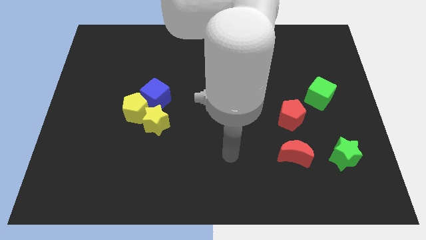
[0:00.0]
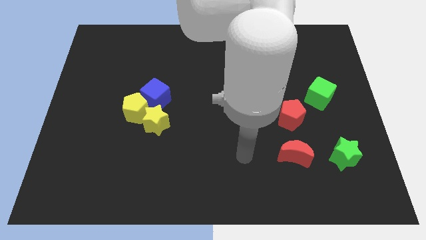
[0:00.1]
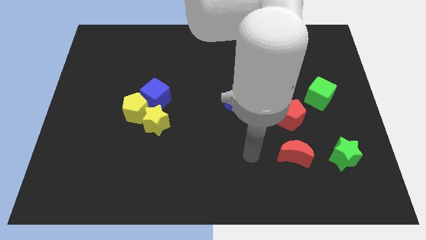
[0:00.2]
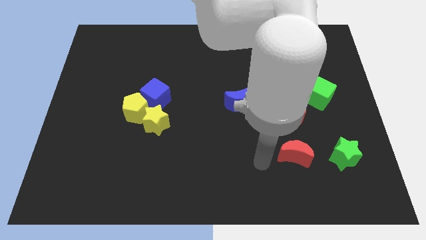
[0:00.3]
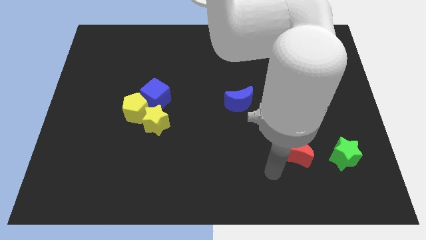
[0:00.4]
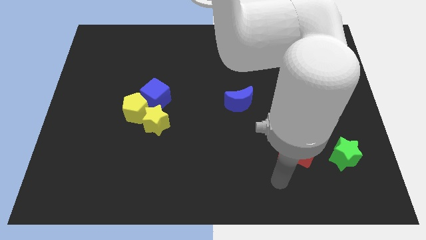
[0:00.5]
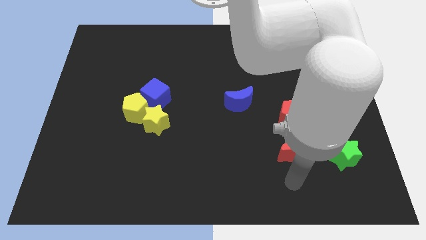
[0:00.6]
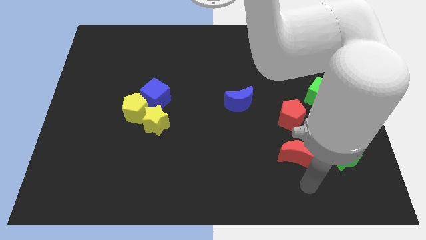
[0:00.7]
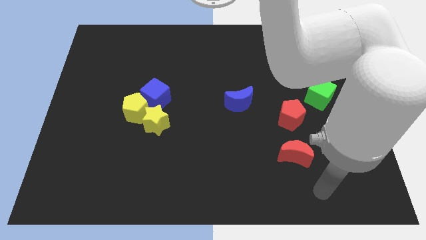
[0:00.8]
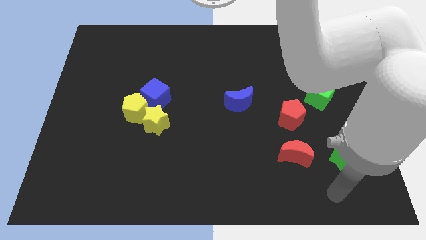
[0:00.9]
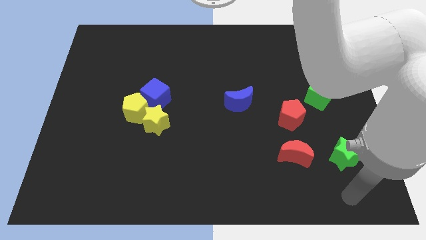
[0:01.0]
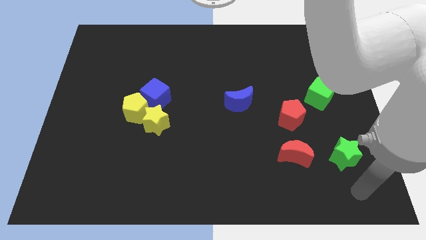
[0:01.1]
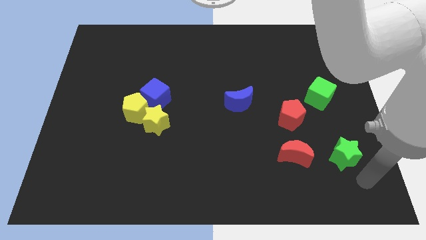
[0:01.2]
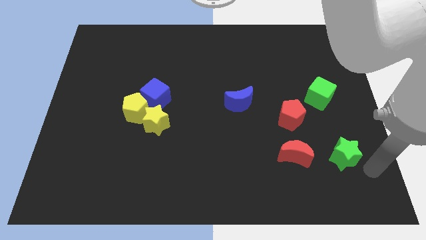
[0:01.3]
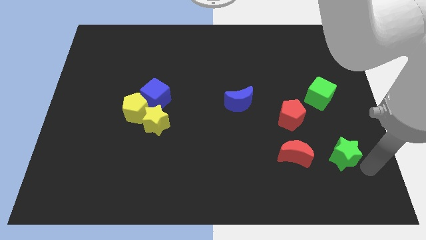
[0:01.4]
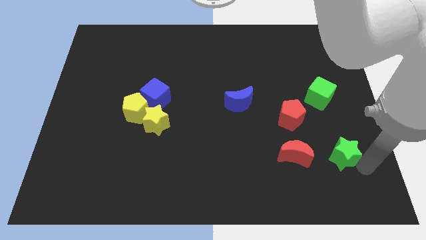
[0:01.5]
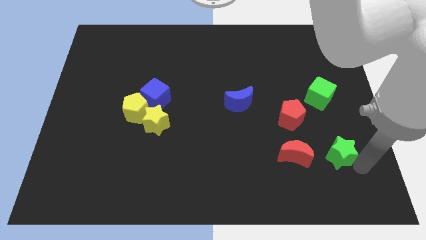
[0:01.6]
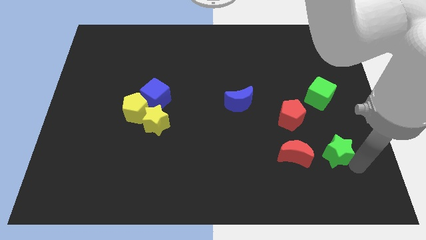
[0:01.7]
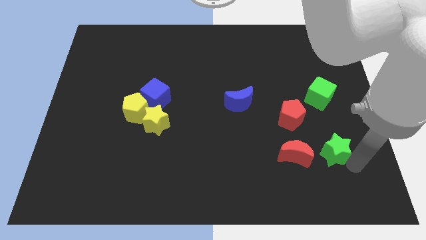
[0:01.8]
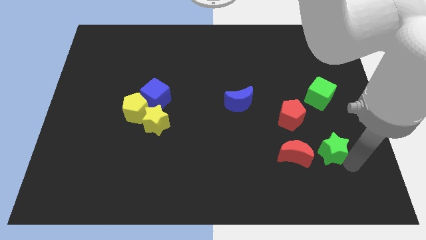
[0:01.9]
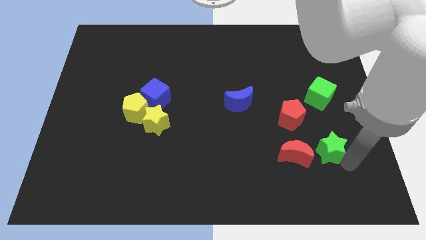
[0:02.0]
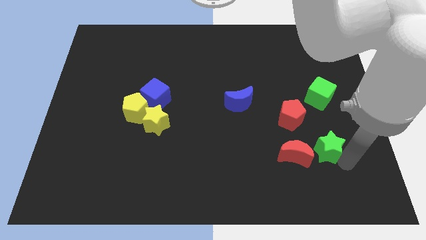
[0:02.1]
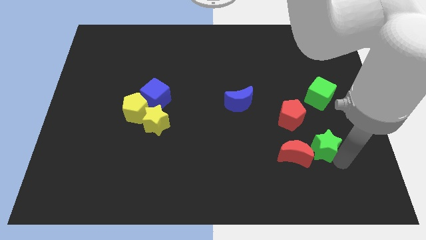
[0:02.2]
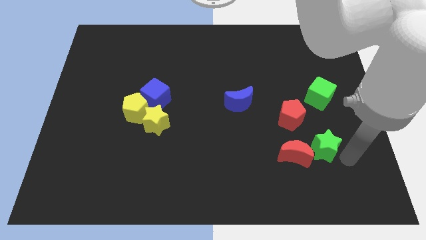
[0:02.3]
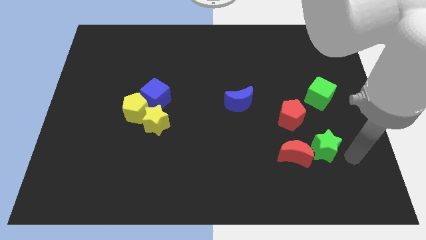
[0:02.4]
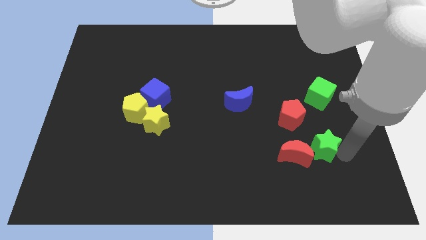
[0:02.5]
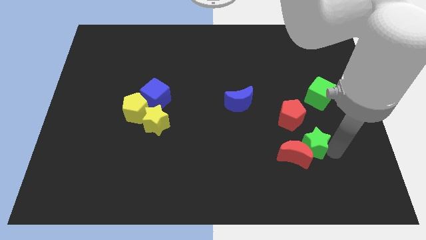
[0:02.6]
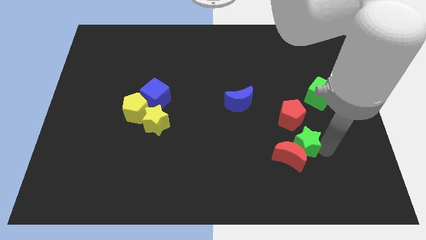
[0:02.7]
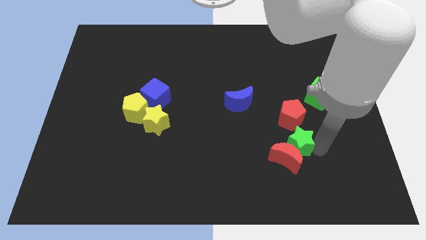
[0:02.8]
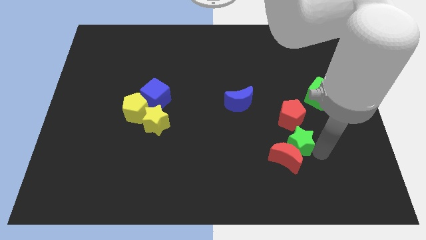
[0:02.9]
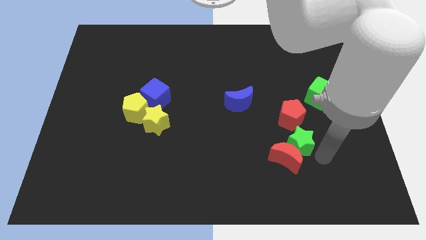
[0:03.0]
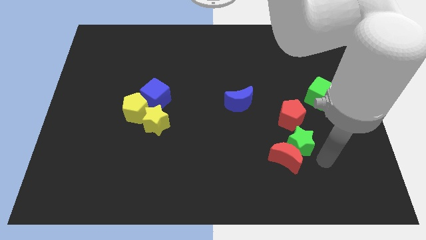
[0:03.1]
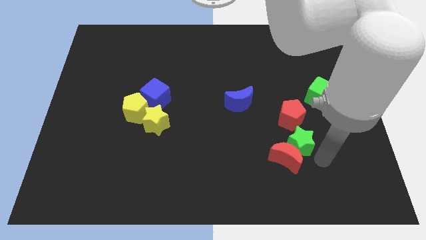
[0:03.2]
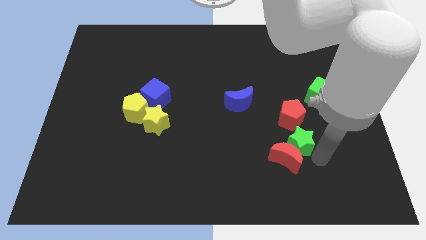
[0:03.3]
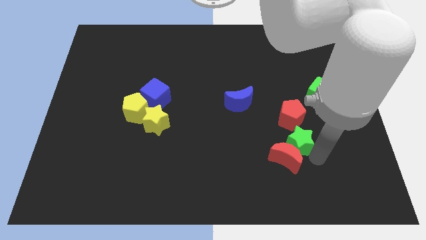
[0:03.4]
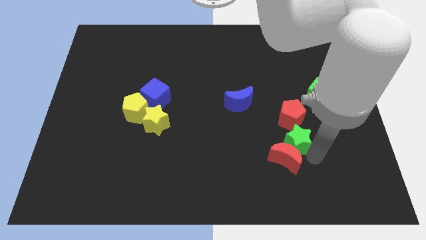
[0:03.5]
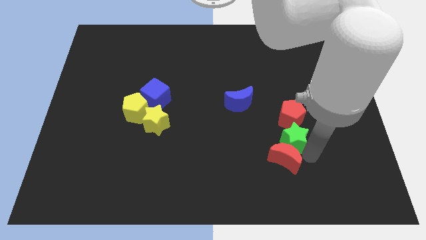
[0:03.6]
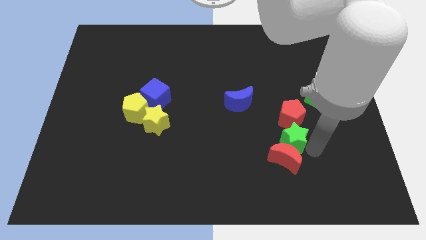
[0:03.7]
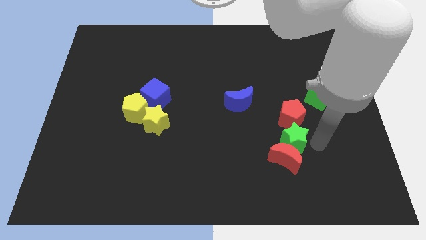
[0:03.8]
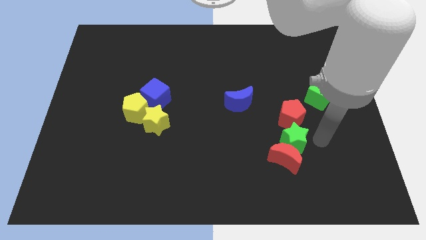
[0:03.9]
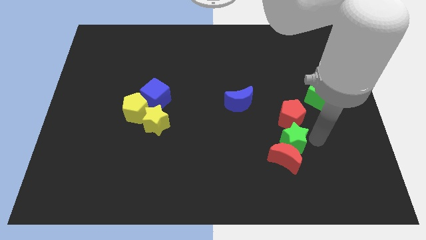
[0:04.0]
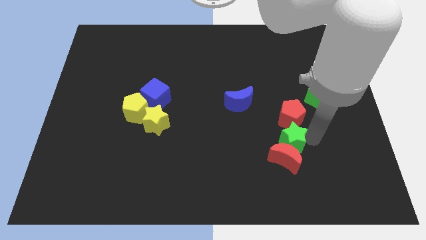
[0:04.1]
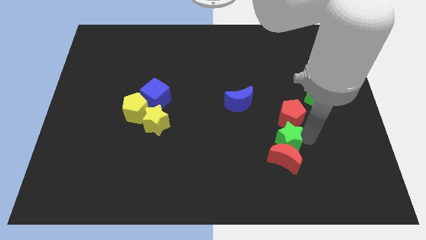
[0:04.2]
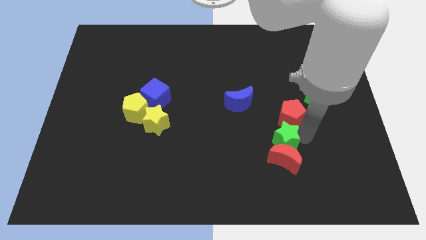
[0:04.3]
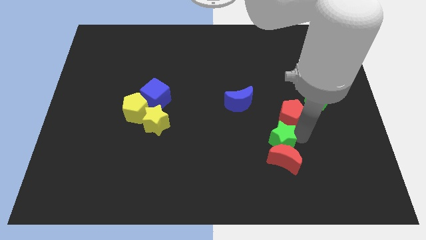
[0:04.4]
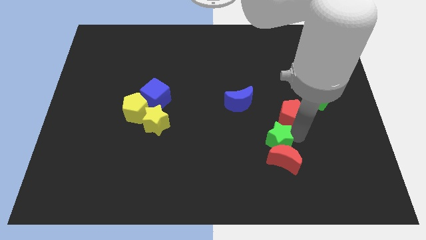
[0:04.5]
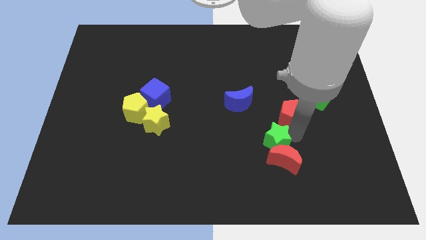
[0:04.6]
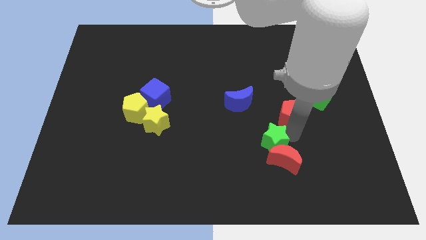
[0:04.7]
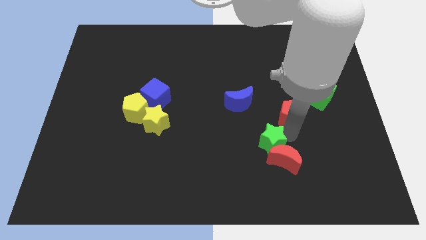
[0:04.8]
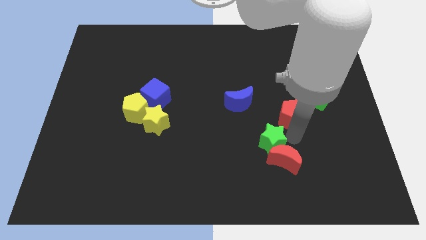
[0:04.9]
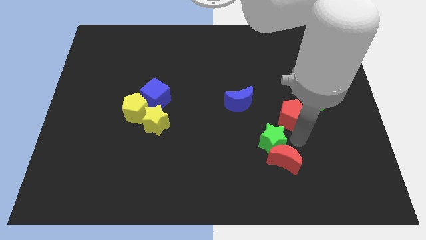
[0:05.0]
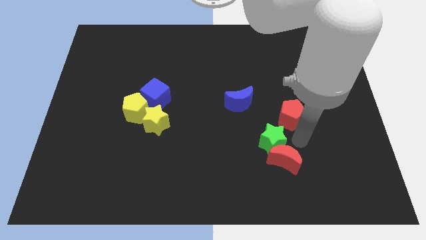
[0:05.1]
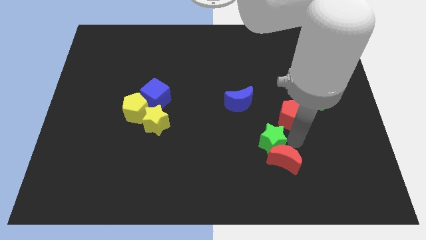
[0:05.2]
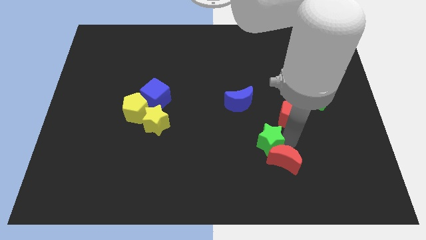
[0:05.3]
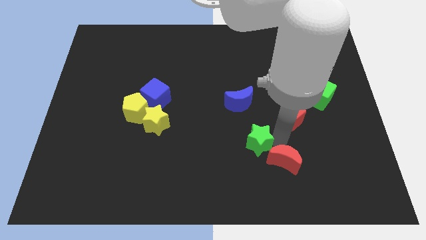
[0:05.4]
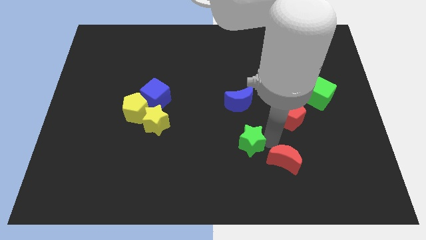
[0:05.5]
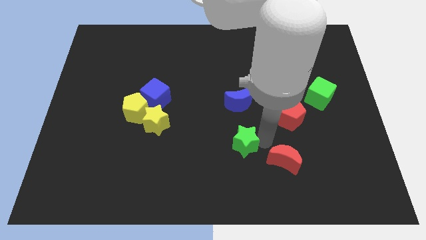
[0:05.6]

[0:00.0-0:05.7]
push the green star left

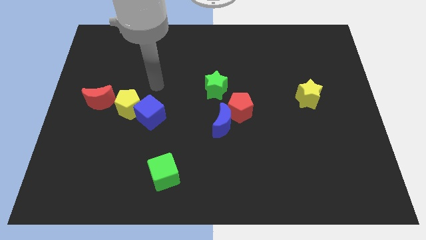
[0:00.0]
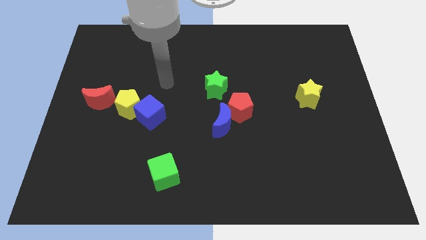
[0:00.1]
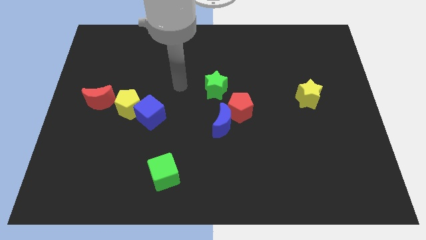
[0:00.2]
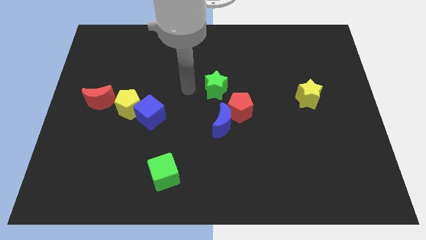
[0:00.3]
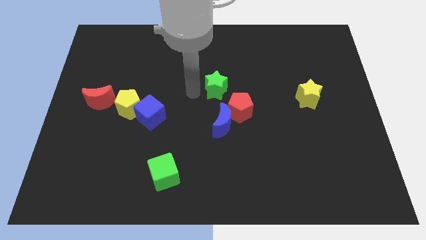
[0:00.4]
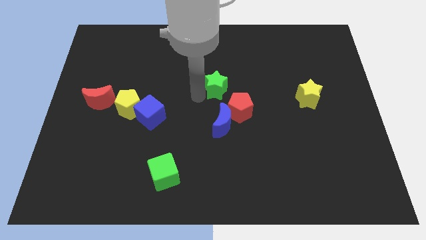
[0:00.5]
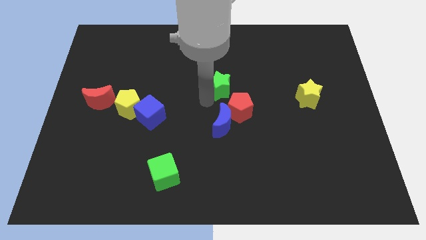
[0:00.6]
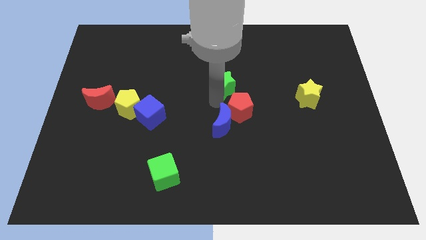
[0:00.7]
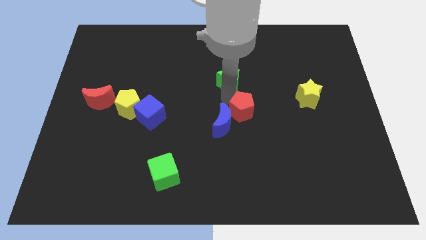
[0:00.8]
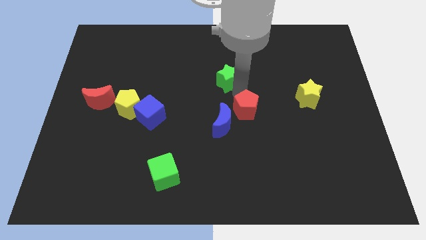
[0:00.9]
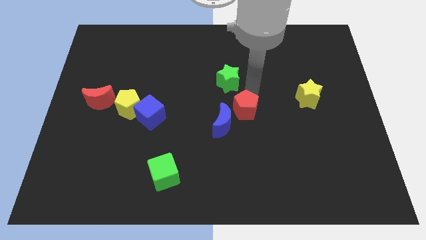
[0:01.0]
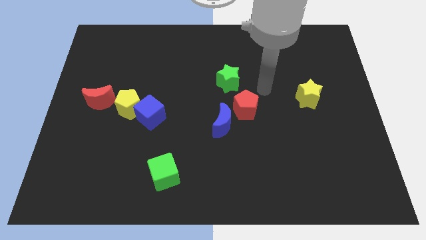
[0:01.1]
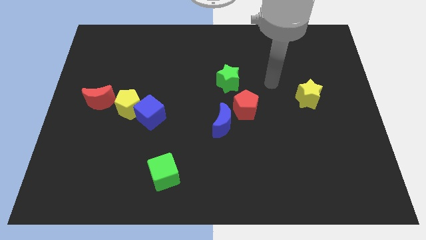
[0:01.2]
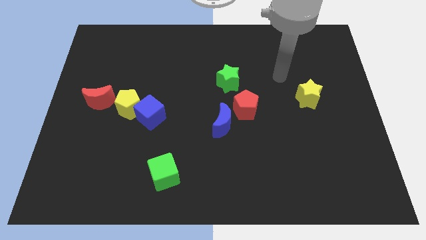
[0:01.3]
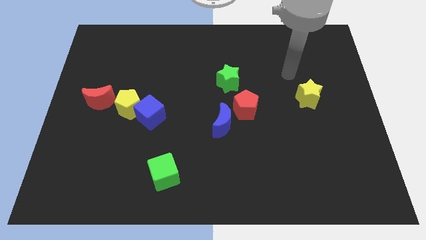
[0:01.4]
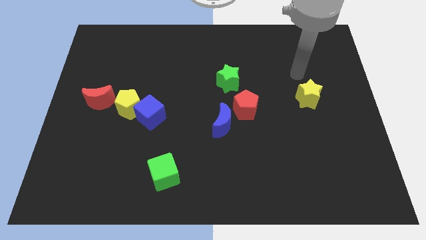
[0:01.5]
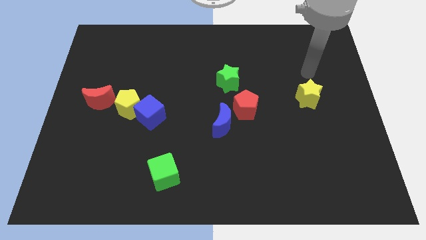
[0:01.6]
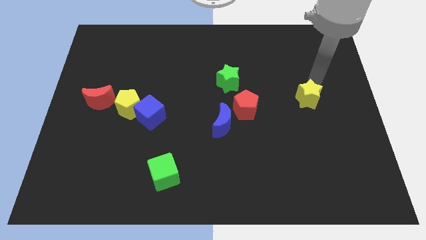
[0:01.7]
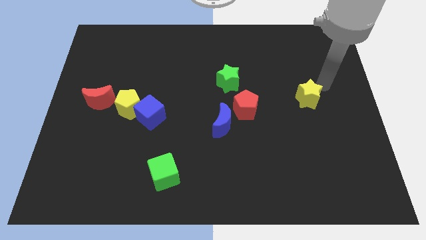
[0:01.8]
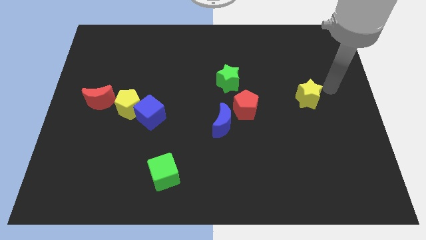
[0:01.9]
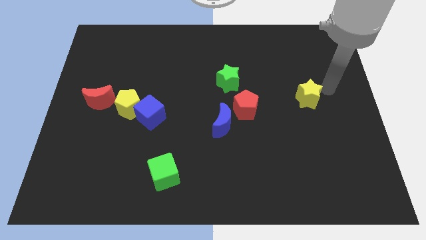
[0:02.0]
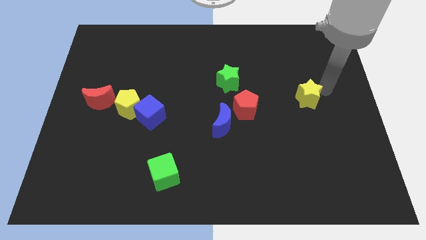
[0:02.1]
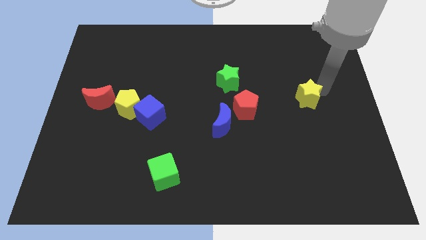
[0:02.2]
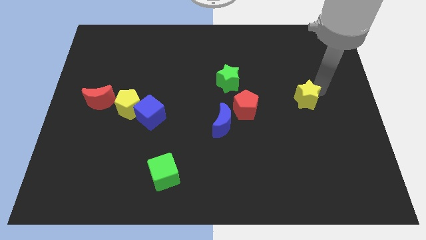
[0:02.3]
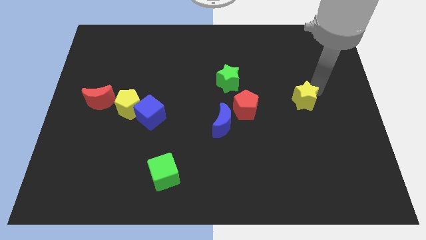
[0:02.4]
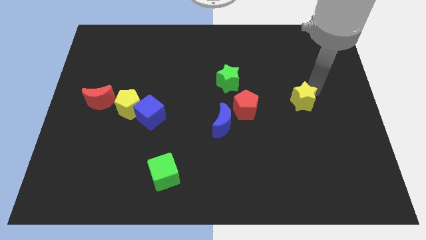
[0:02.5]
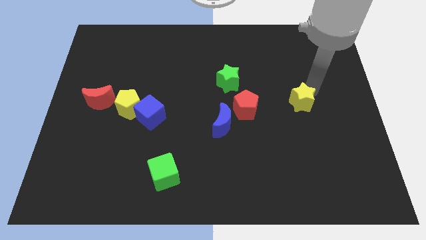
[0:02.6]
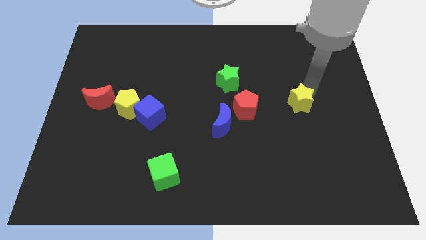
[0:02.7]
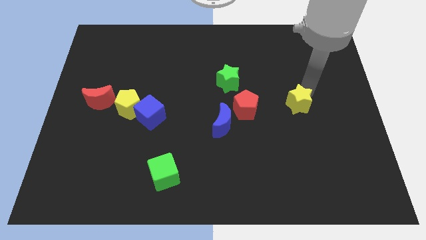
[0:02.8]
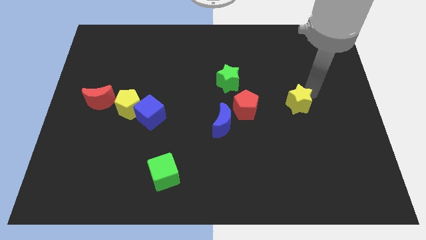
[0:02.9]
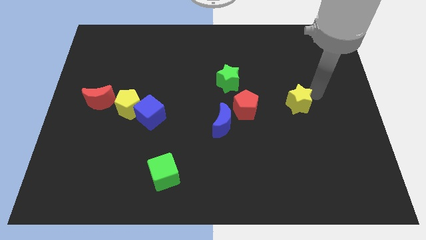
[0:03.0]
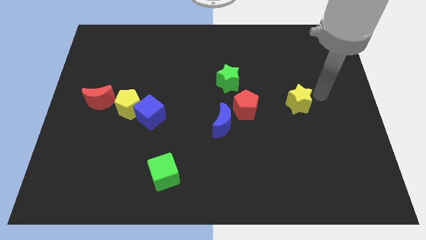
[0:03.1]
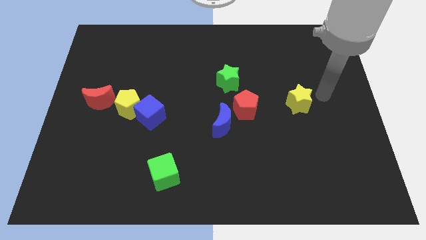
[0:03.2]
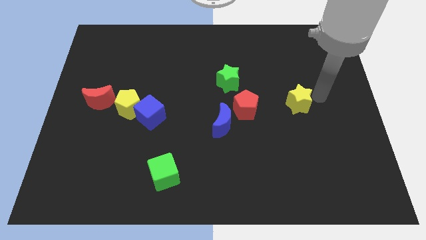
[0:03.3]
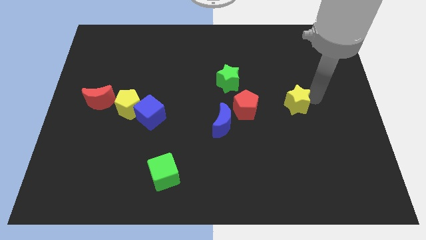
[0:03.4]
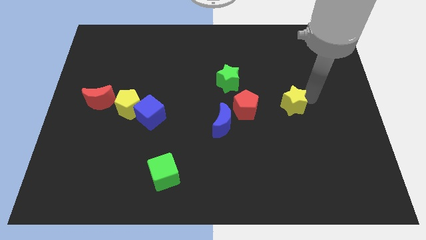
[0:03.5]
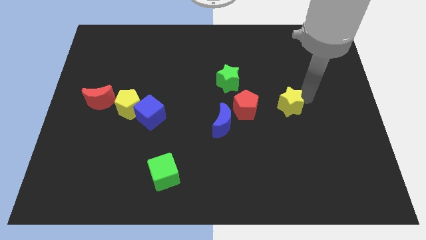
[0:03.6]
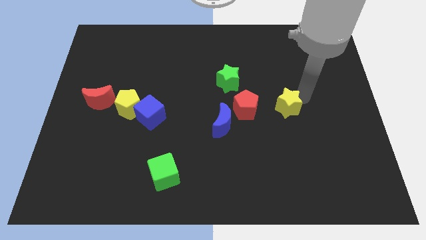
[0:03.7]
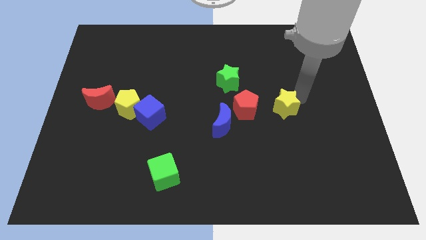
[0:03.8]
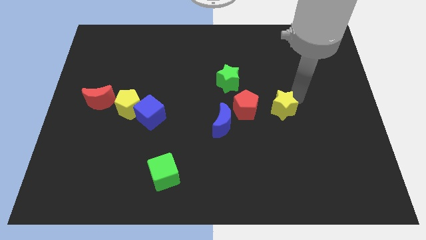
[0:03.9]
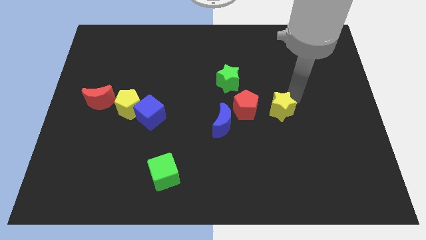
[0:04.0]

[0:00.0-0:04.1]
slide the yellow star slightly downwards and to the left
